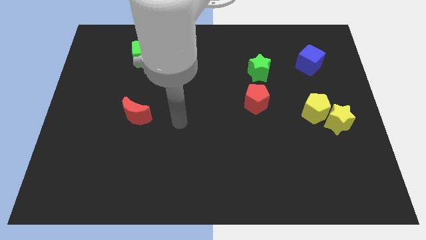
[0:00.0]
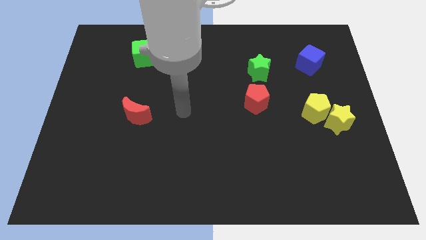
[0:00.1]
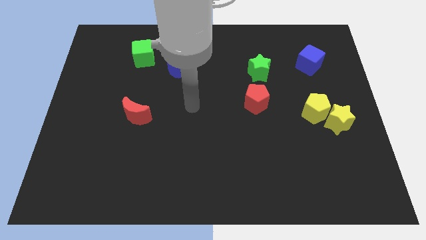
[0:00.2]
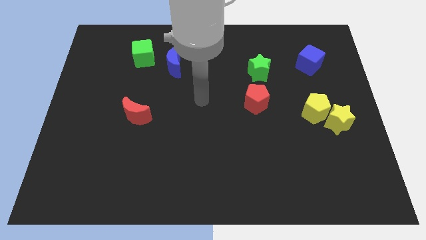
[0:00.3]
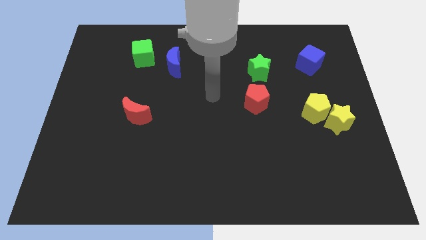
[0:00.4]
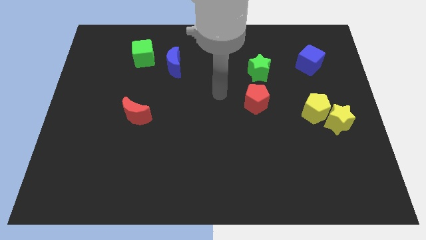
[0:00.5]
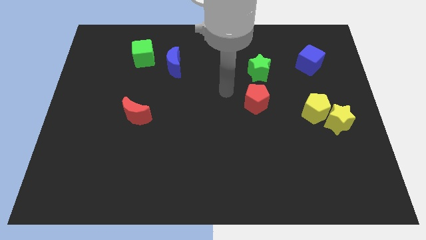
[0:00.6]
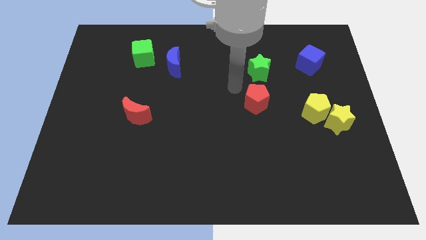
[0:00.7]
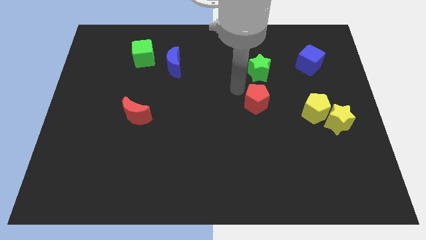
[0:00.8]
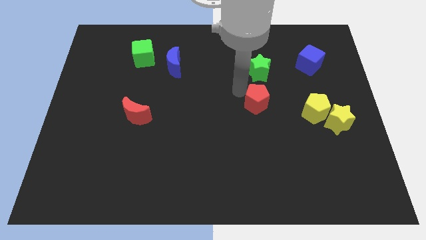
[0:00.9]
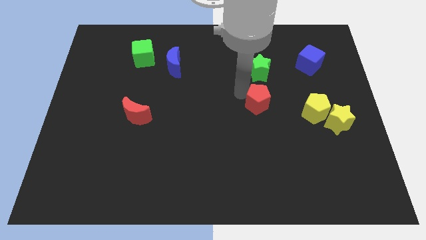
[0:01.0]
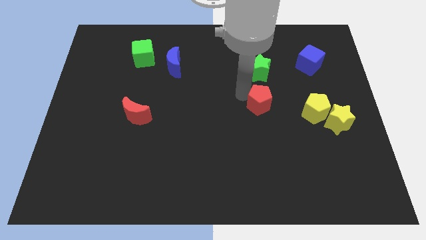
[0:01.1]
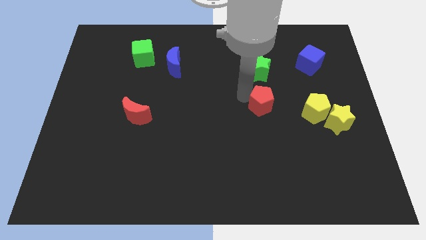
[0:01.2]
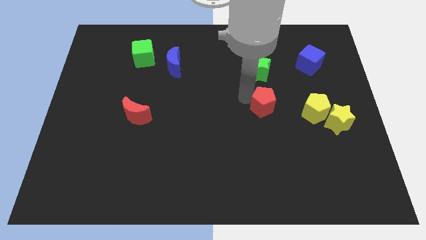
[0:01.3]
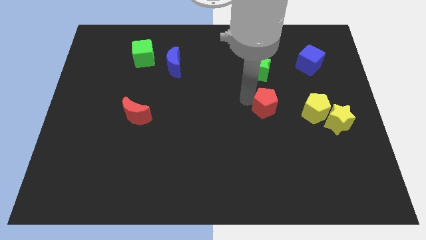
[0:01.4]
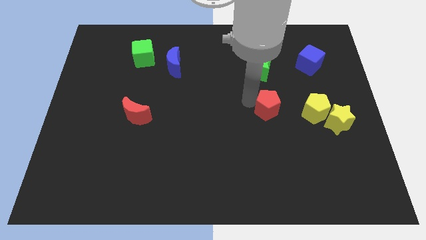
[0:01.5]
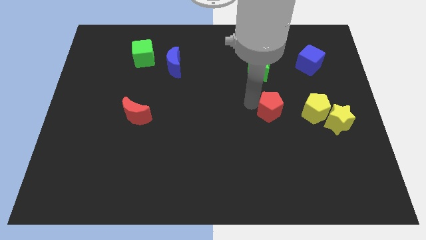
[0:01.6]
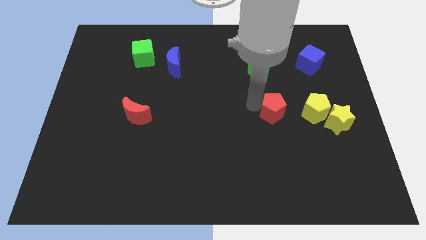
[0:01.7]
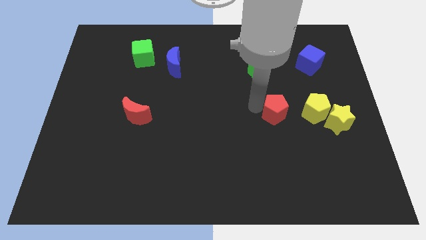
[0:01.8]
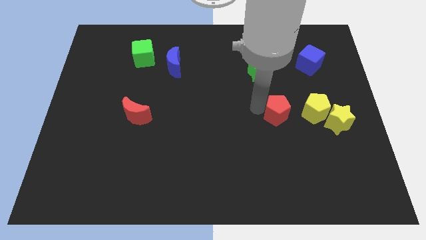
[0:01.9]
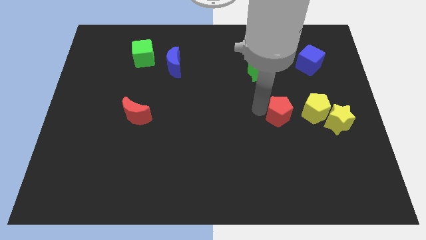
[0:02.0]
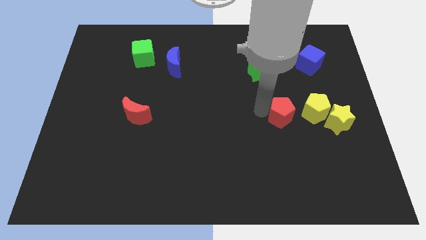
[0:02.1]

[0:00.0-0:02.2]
slightly slide the red pentagon down and then right

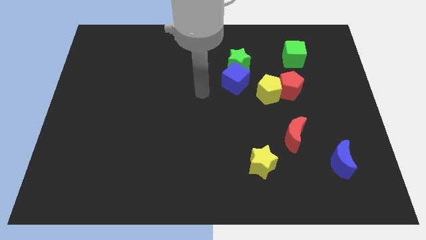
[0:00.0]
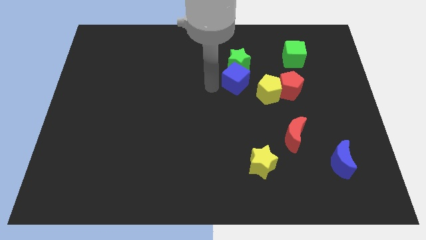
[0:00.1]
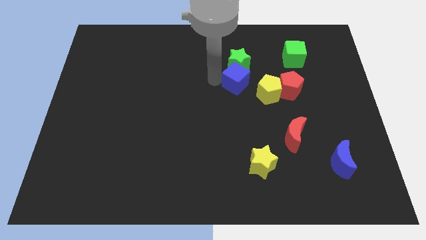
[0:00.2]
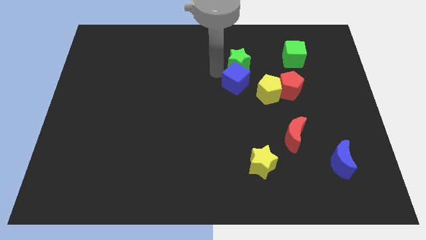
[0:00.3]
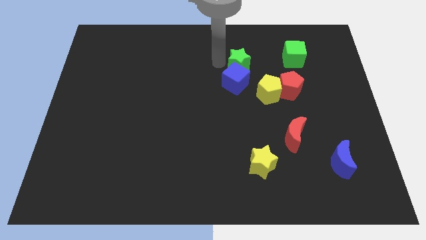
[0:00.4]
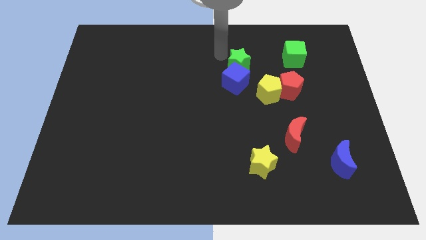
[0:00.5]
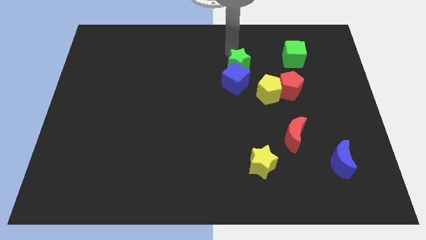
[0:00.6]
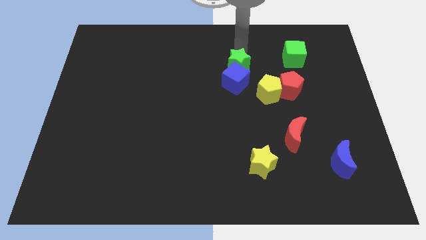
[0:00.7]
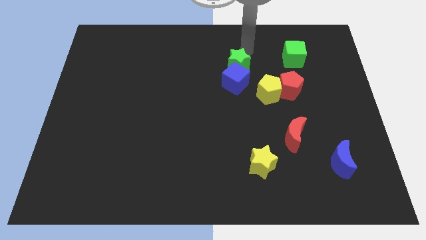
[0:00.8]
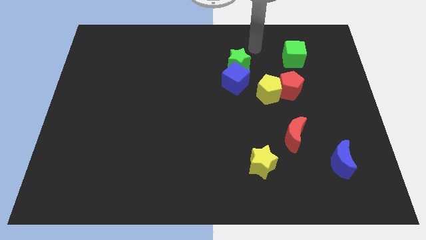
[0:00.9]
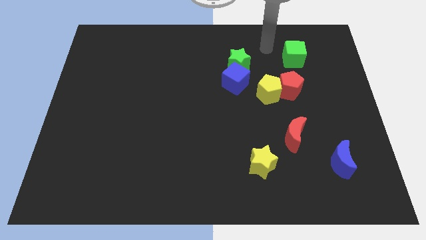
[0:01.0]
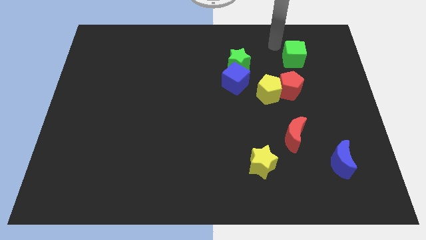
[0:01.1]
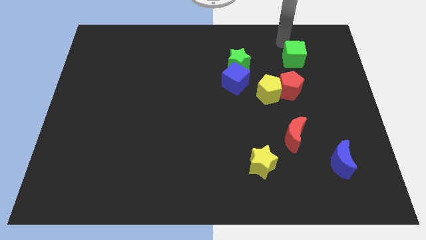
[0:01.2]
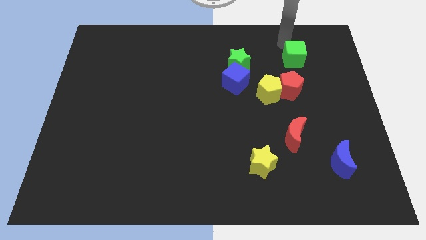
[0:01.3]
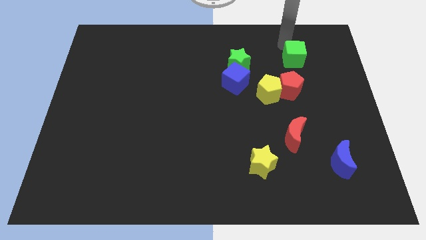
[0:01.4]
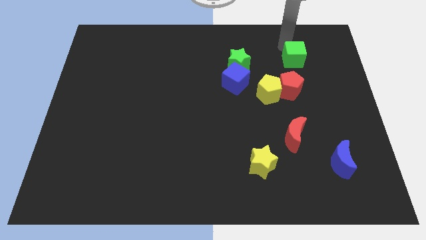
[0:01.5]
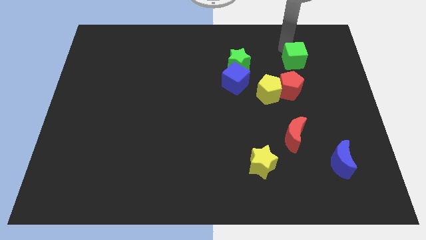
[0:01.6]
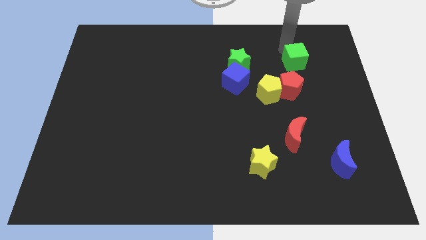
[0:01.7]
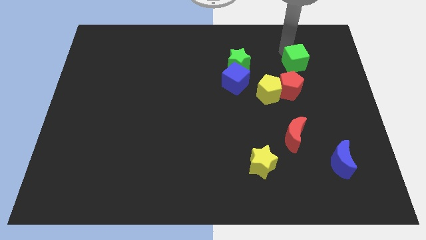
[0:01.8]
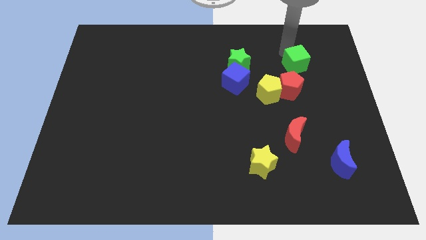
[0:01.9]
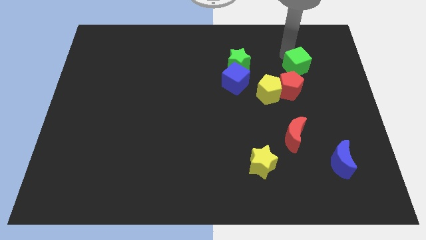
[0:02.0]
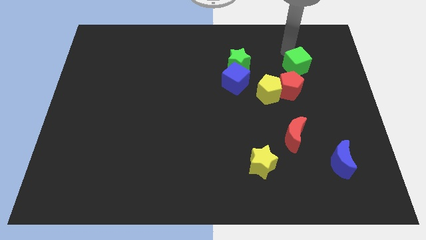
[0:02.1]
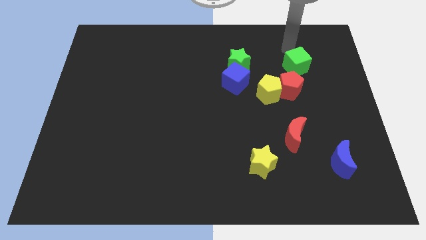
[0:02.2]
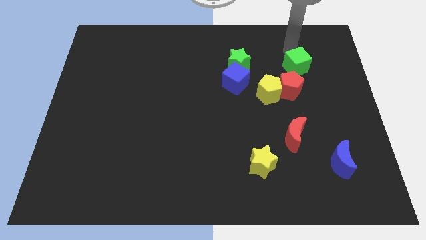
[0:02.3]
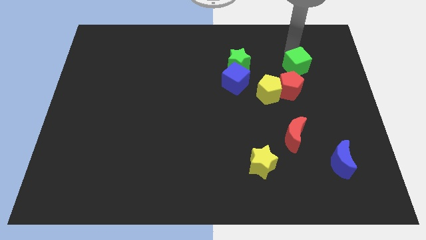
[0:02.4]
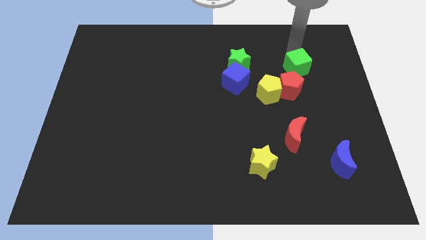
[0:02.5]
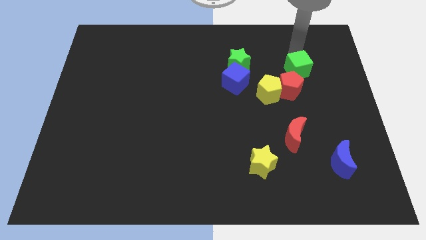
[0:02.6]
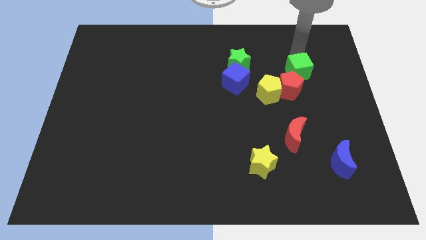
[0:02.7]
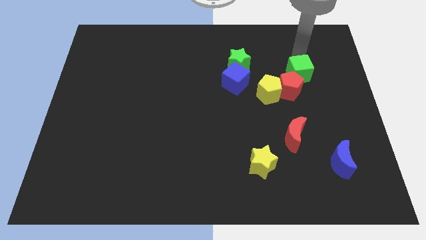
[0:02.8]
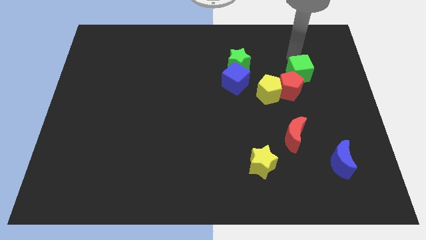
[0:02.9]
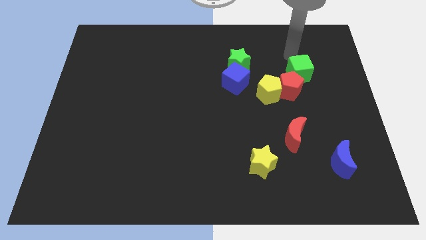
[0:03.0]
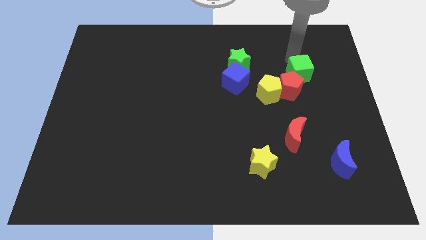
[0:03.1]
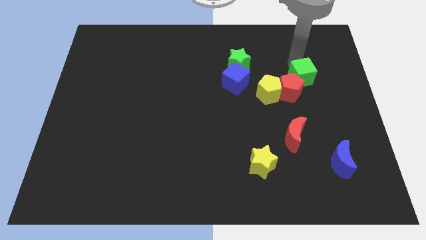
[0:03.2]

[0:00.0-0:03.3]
slide the green cube down a little

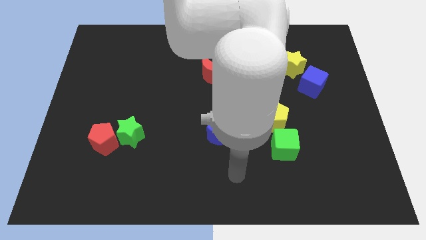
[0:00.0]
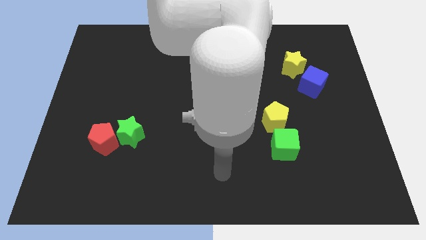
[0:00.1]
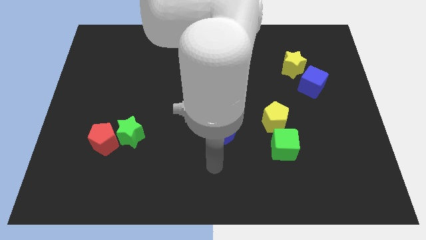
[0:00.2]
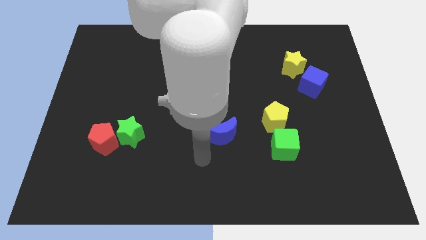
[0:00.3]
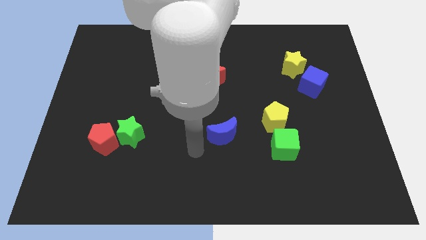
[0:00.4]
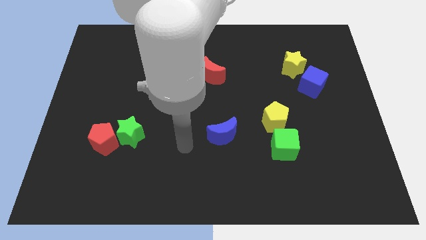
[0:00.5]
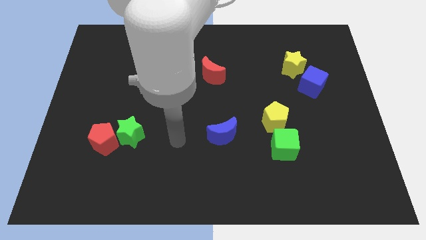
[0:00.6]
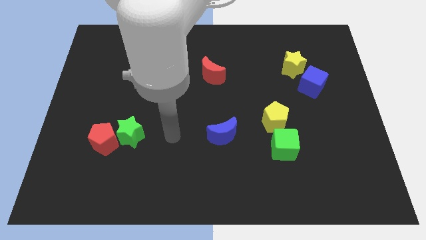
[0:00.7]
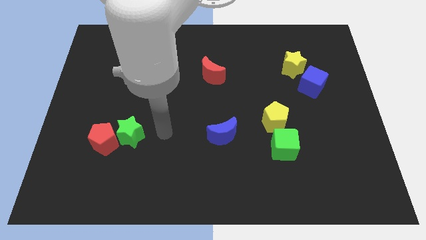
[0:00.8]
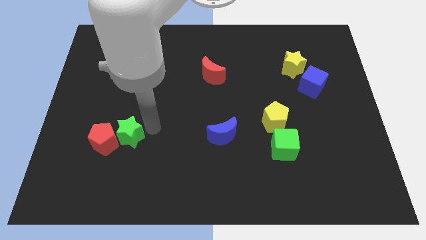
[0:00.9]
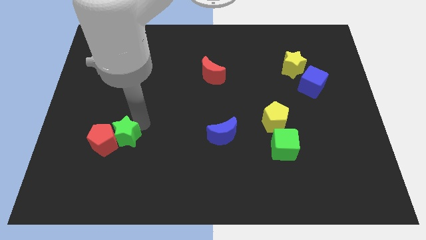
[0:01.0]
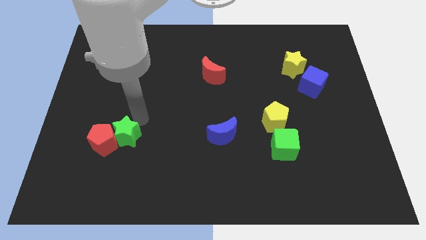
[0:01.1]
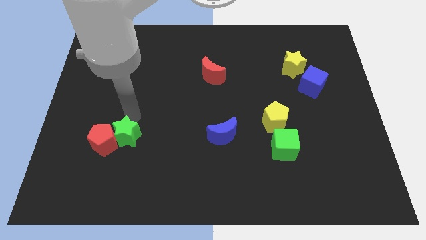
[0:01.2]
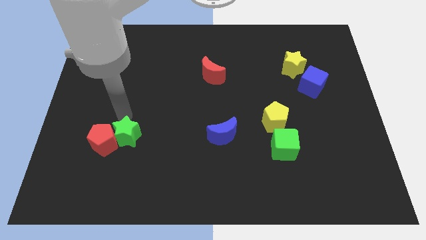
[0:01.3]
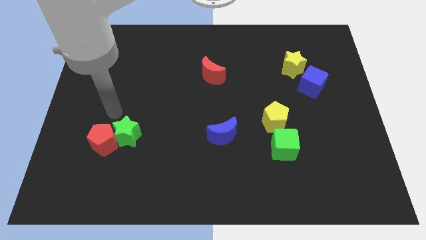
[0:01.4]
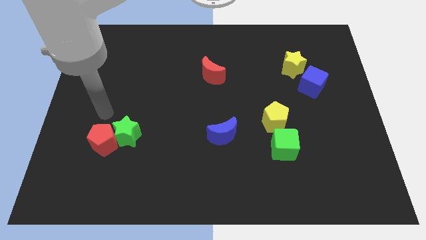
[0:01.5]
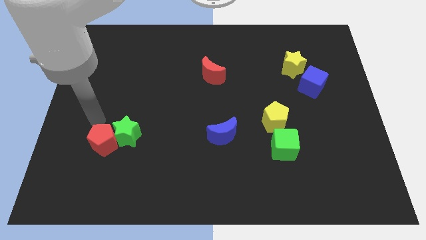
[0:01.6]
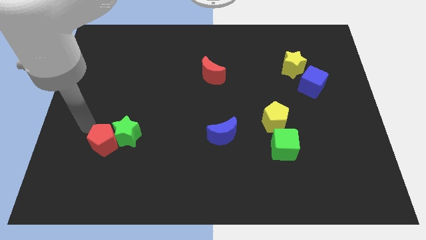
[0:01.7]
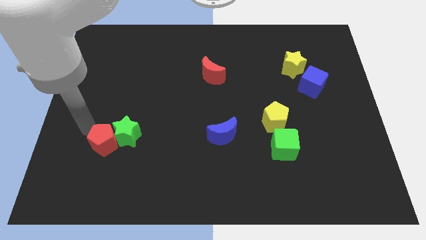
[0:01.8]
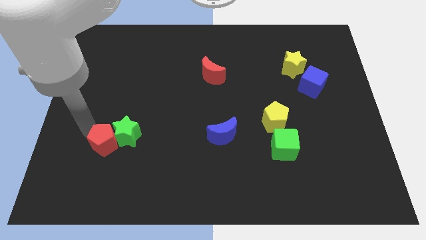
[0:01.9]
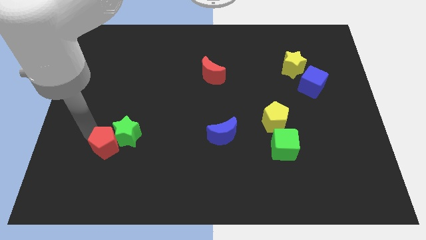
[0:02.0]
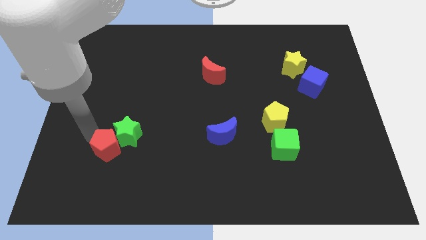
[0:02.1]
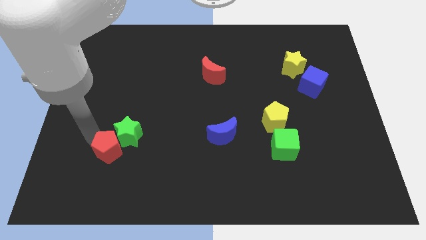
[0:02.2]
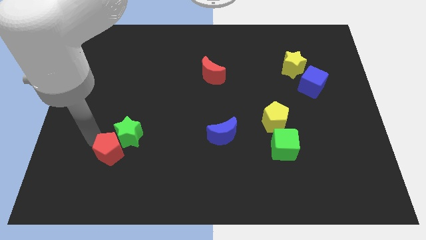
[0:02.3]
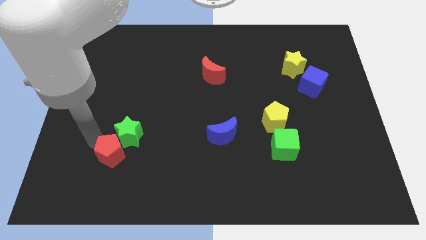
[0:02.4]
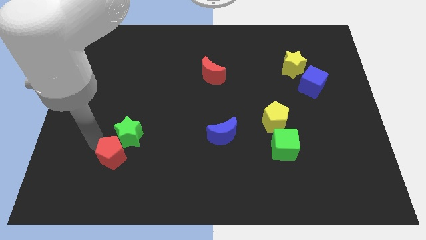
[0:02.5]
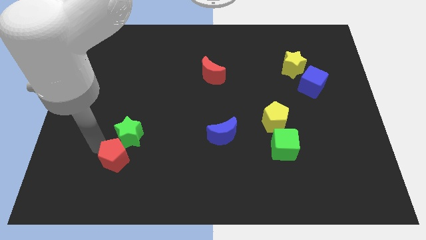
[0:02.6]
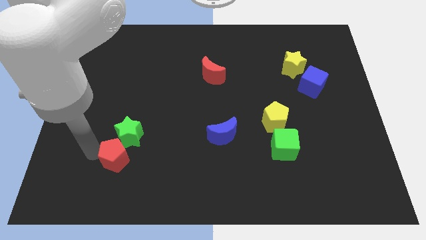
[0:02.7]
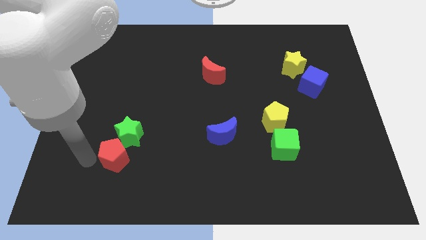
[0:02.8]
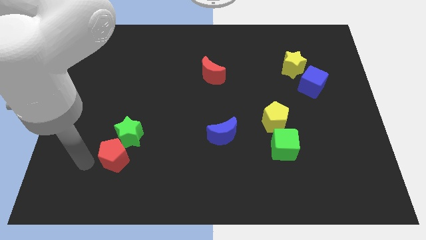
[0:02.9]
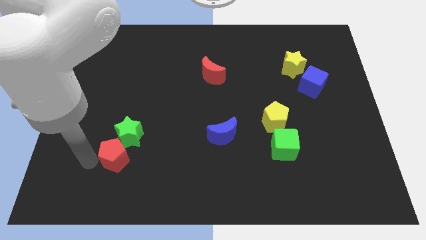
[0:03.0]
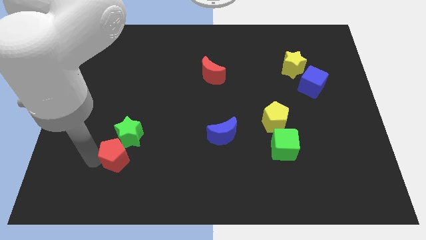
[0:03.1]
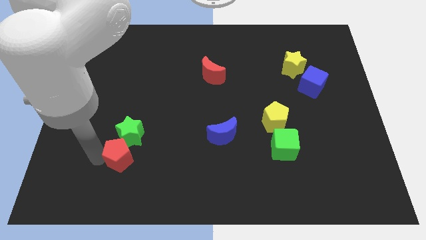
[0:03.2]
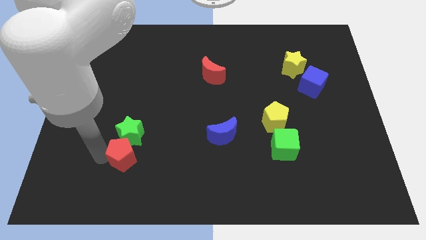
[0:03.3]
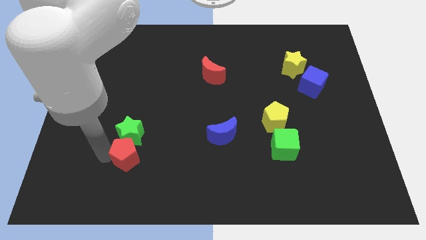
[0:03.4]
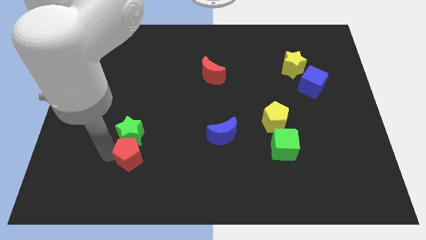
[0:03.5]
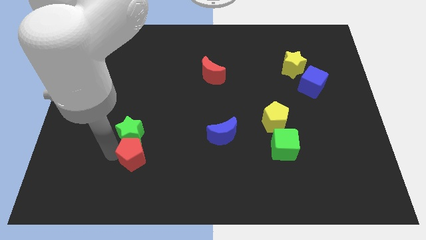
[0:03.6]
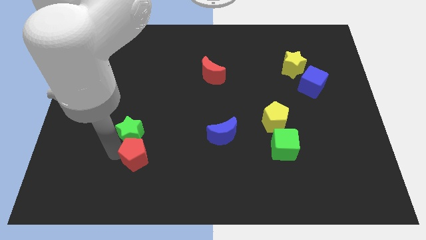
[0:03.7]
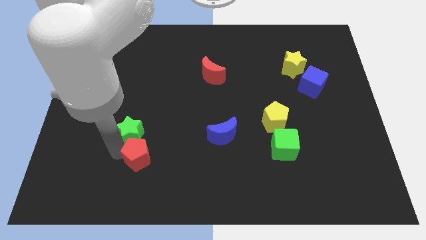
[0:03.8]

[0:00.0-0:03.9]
slide the red pentagon to the right a little
